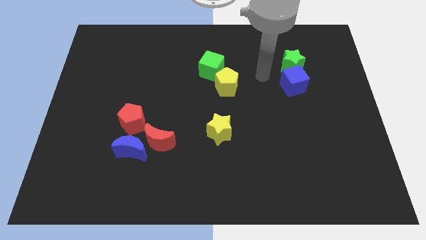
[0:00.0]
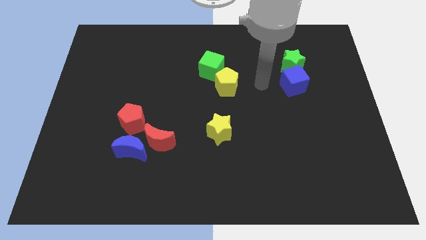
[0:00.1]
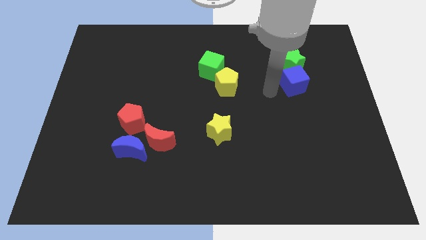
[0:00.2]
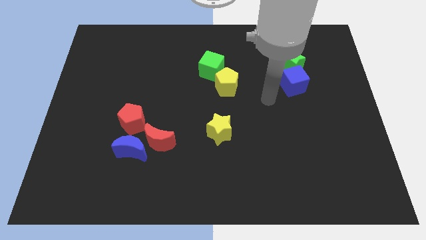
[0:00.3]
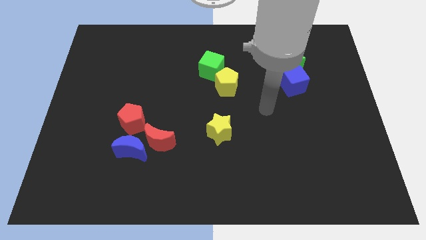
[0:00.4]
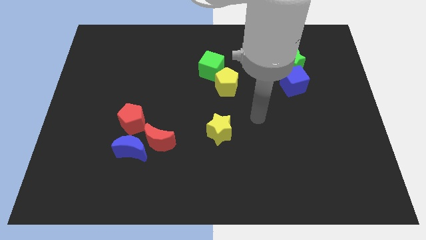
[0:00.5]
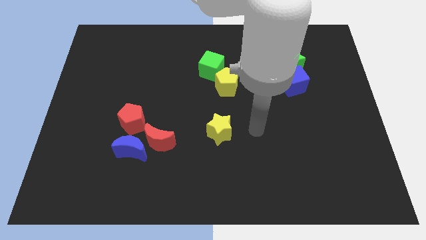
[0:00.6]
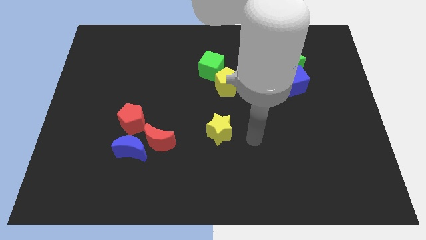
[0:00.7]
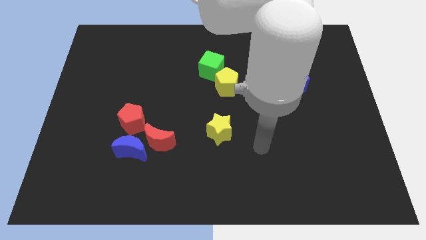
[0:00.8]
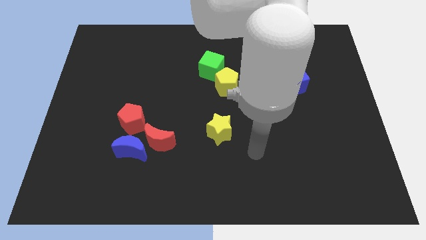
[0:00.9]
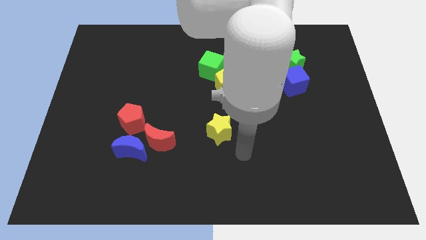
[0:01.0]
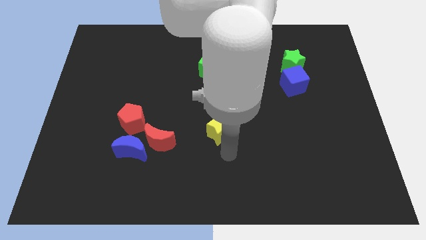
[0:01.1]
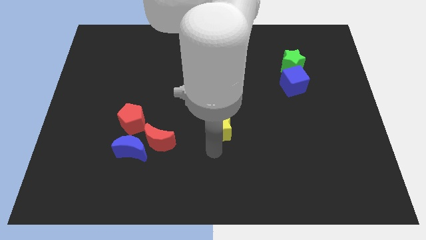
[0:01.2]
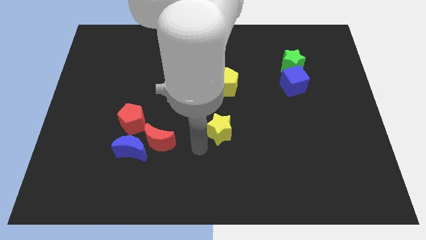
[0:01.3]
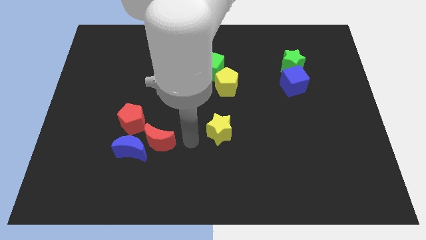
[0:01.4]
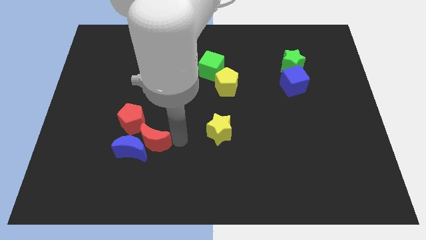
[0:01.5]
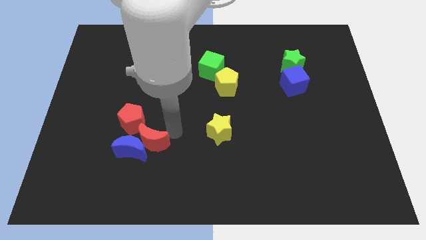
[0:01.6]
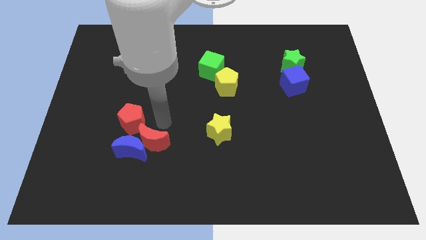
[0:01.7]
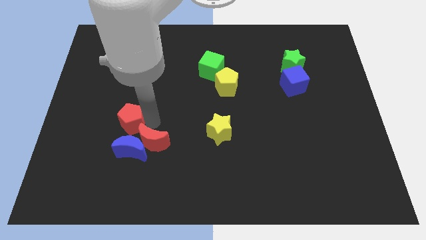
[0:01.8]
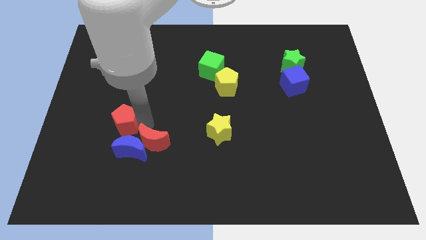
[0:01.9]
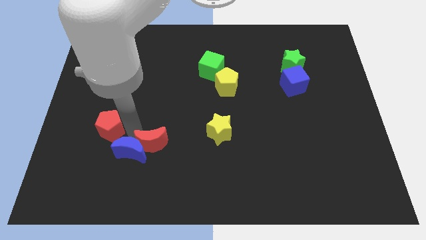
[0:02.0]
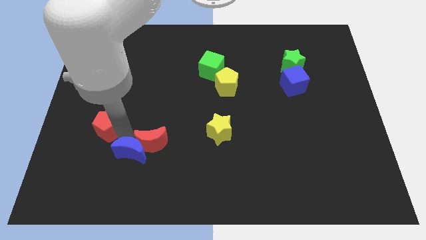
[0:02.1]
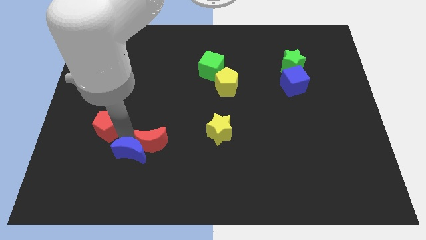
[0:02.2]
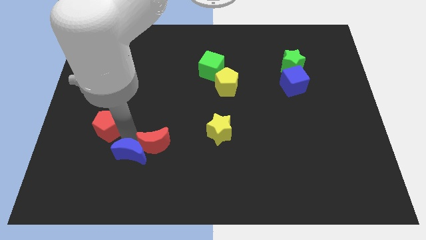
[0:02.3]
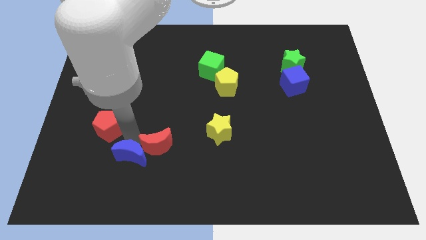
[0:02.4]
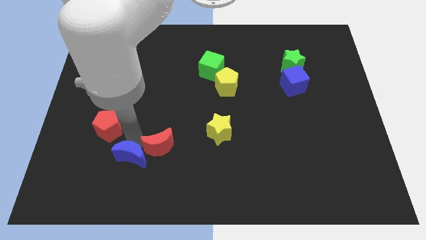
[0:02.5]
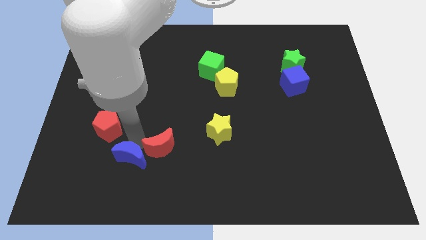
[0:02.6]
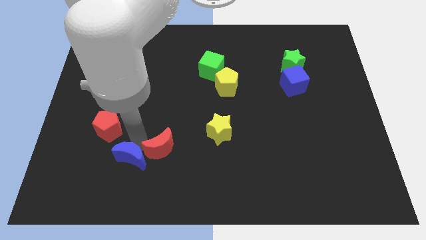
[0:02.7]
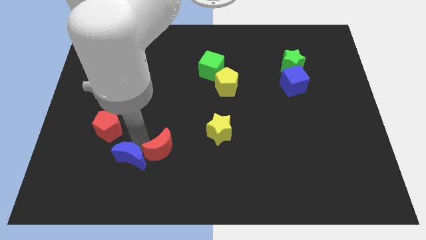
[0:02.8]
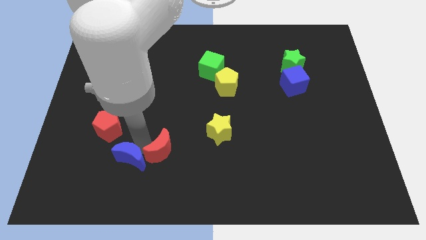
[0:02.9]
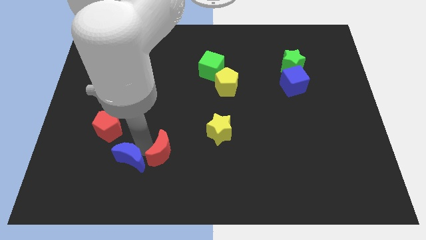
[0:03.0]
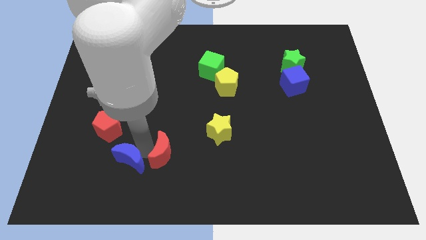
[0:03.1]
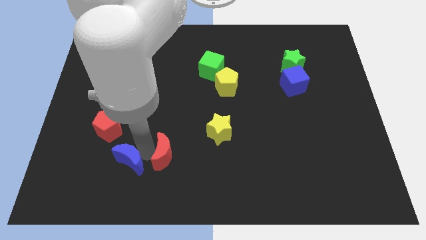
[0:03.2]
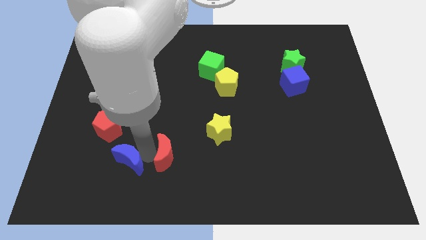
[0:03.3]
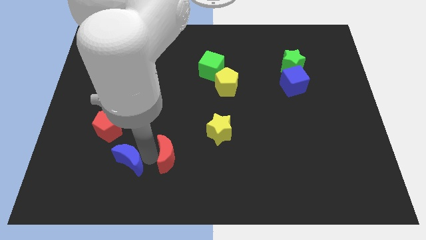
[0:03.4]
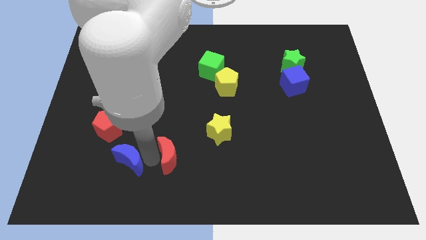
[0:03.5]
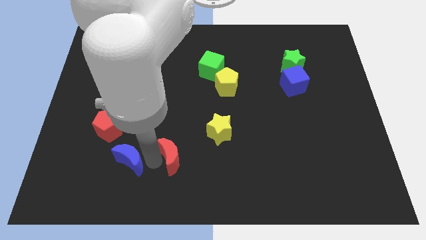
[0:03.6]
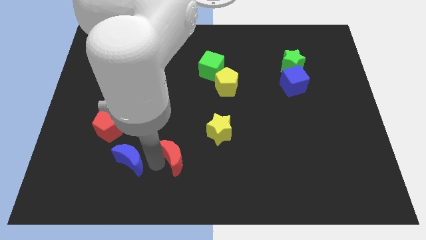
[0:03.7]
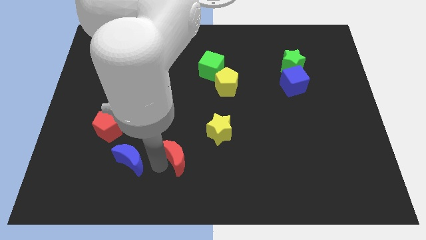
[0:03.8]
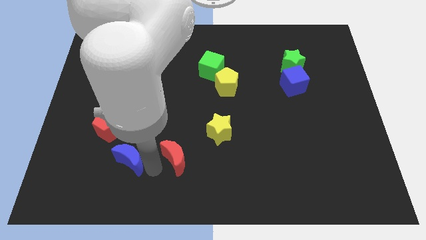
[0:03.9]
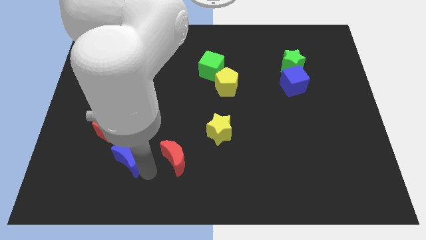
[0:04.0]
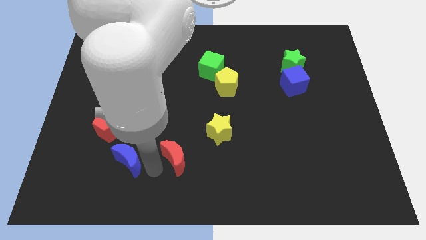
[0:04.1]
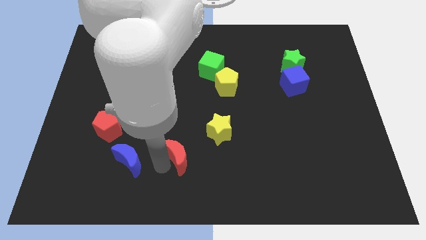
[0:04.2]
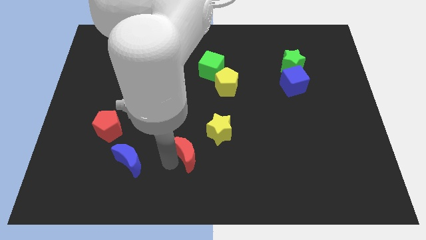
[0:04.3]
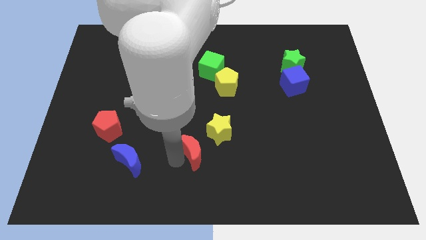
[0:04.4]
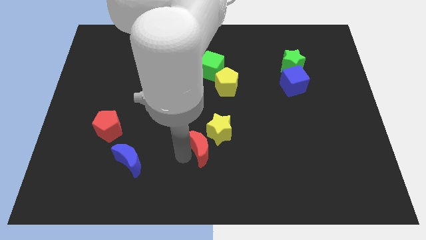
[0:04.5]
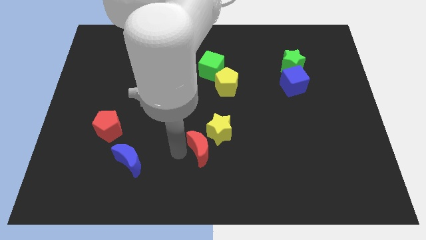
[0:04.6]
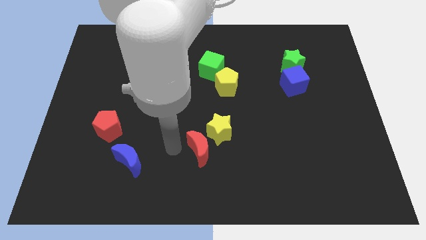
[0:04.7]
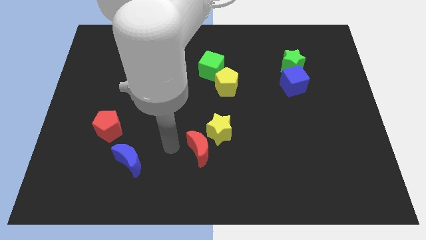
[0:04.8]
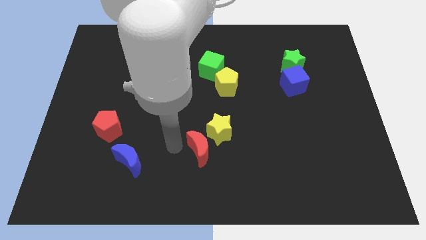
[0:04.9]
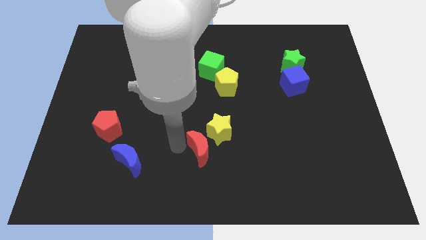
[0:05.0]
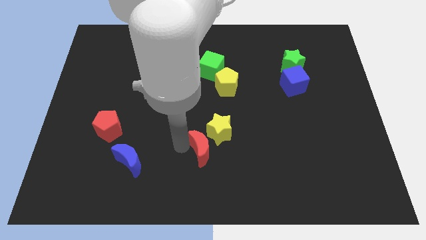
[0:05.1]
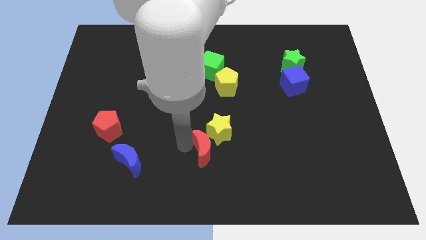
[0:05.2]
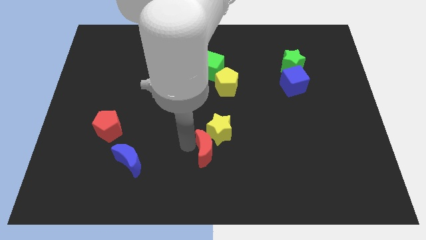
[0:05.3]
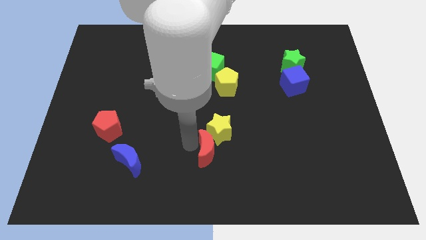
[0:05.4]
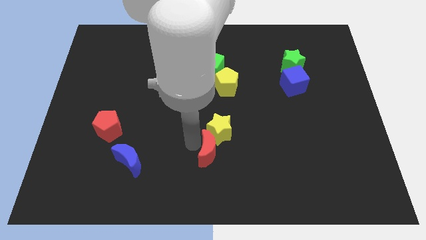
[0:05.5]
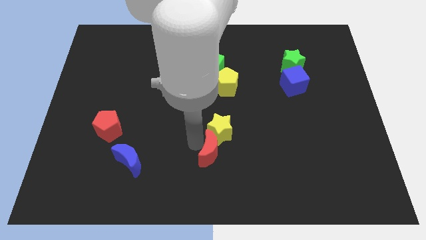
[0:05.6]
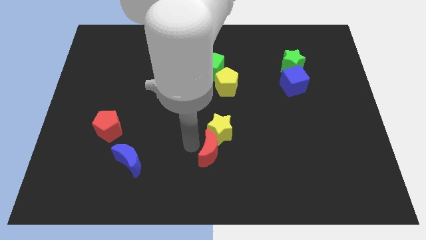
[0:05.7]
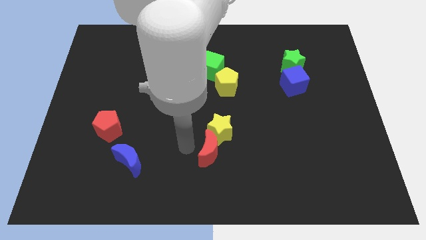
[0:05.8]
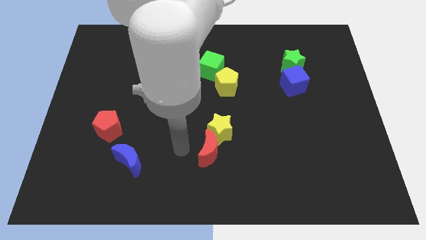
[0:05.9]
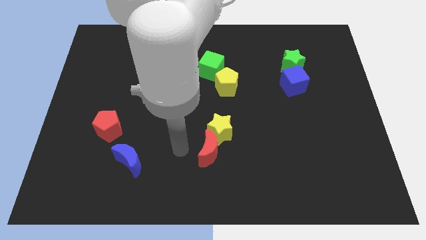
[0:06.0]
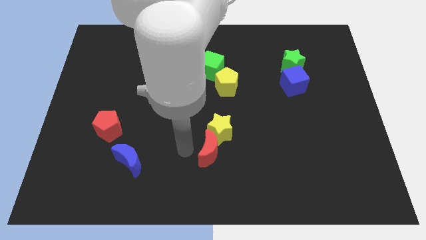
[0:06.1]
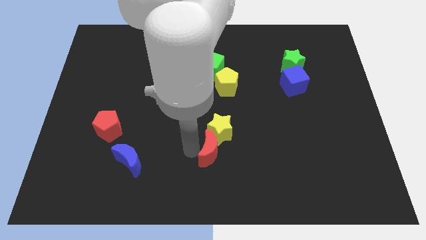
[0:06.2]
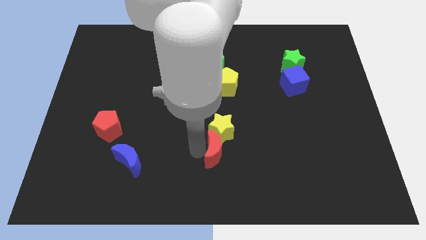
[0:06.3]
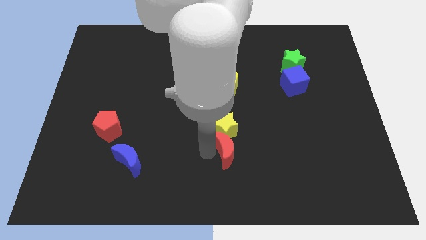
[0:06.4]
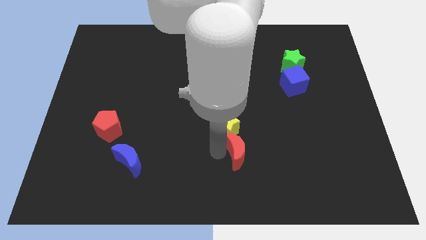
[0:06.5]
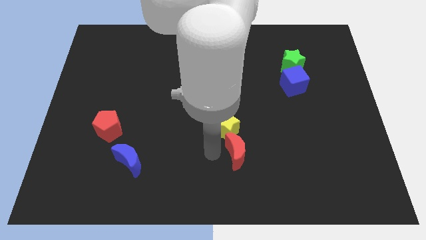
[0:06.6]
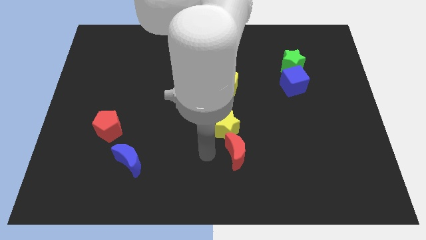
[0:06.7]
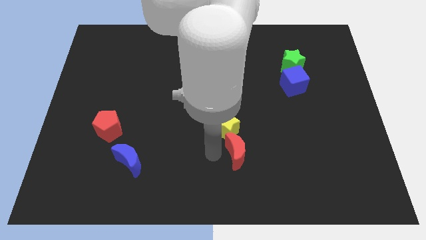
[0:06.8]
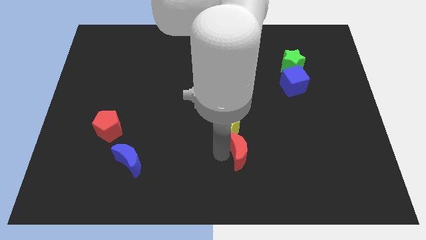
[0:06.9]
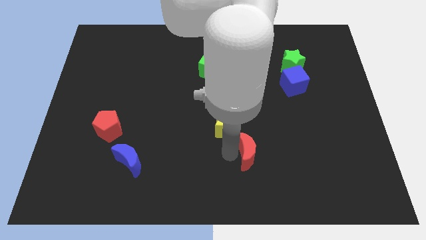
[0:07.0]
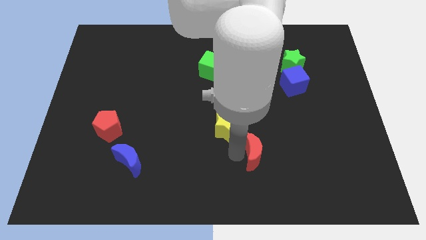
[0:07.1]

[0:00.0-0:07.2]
slide the red moon right

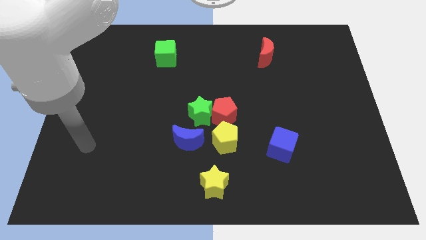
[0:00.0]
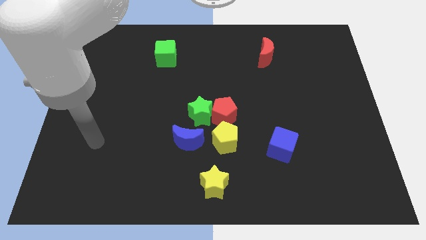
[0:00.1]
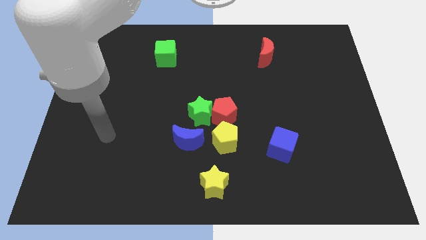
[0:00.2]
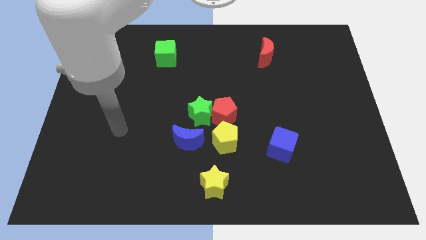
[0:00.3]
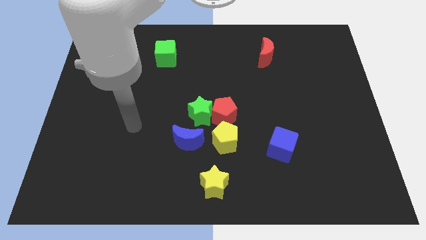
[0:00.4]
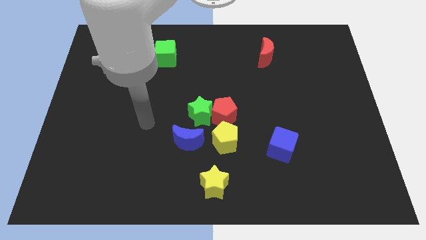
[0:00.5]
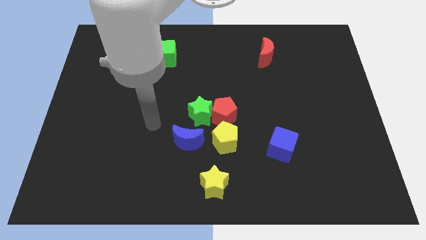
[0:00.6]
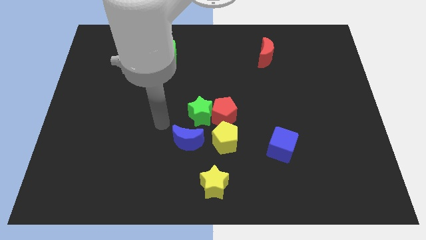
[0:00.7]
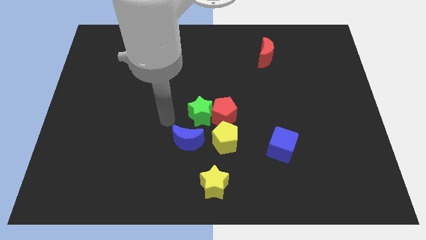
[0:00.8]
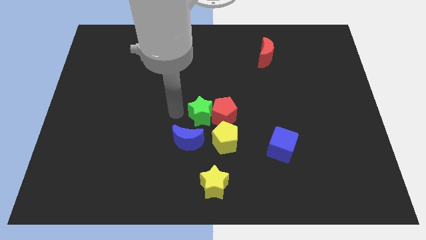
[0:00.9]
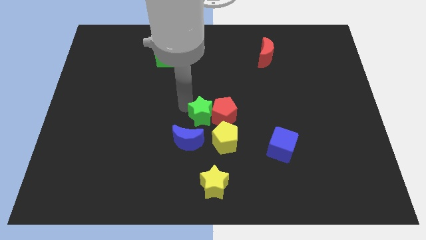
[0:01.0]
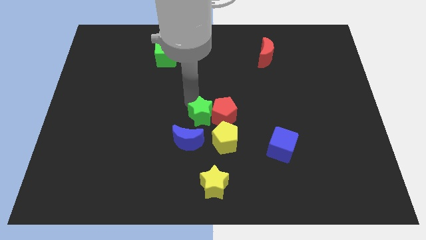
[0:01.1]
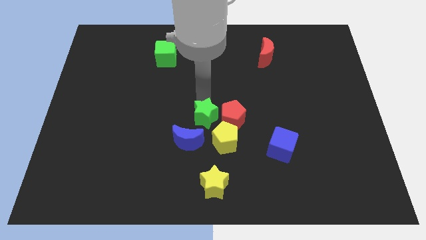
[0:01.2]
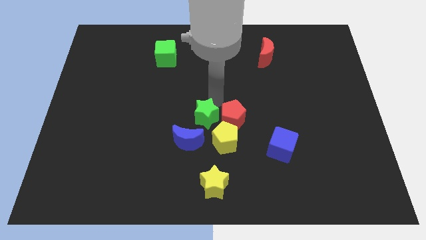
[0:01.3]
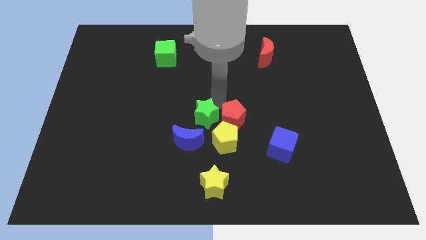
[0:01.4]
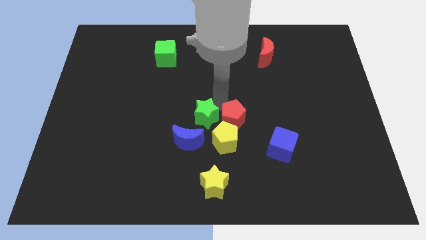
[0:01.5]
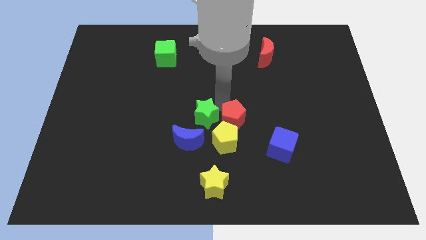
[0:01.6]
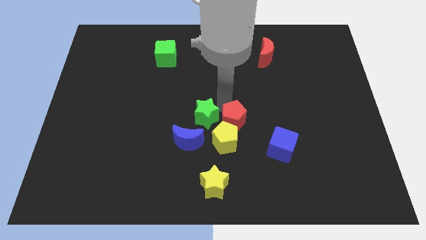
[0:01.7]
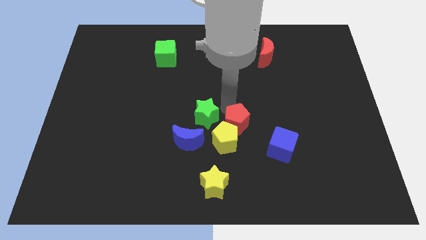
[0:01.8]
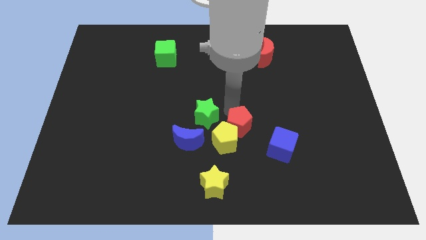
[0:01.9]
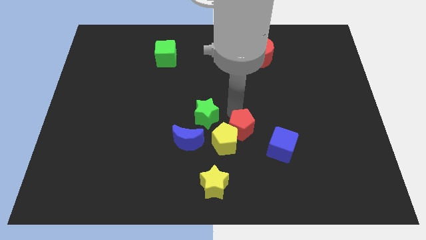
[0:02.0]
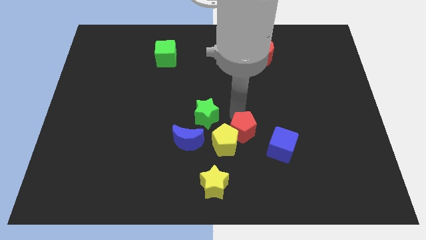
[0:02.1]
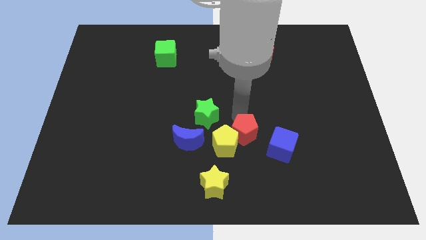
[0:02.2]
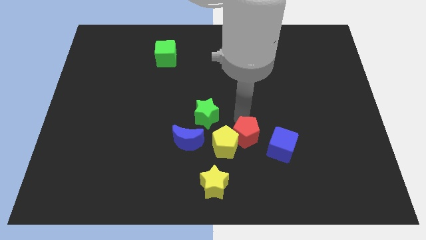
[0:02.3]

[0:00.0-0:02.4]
push the red pentagon down and then to the right a bit
